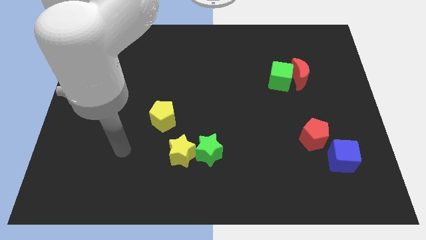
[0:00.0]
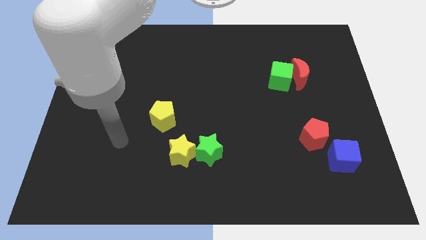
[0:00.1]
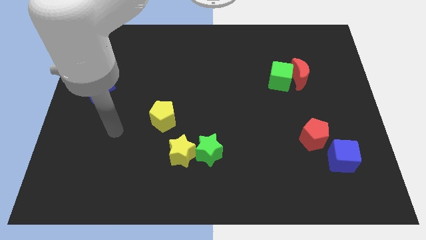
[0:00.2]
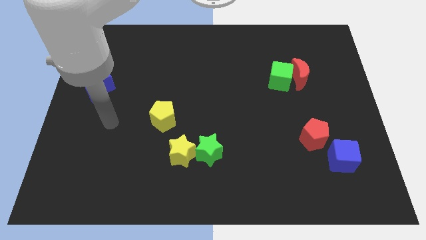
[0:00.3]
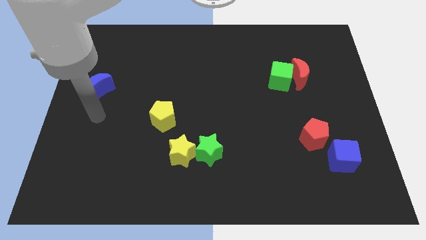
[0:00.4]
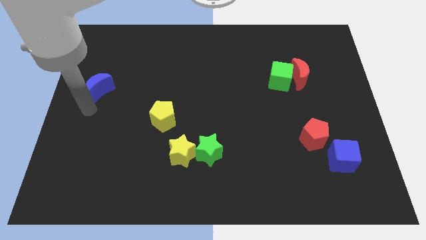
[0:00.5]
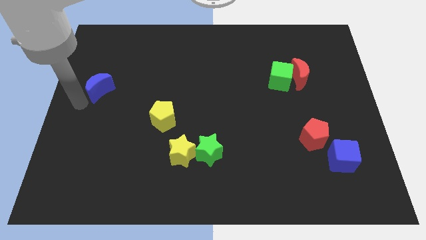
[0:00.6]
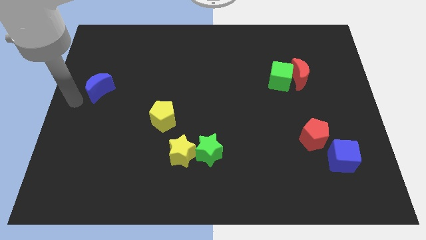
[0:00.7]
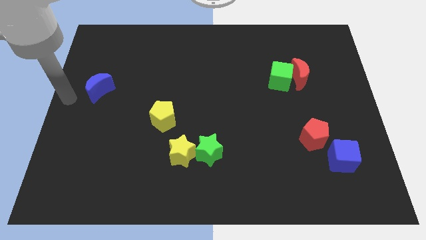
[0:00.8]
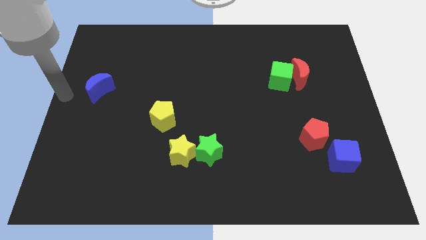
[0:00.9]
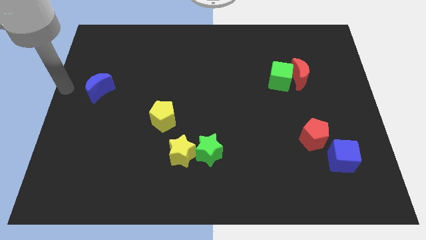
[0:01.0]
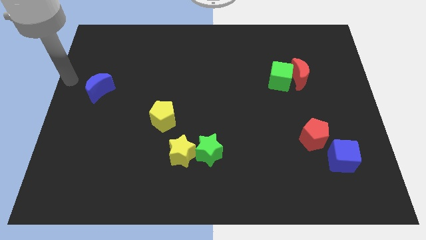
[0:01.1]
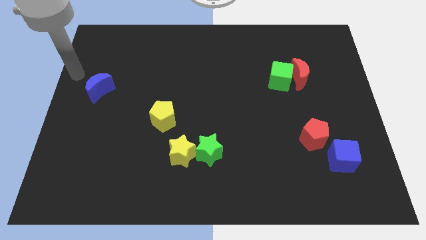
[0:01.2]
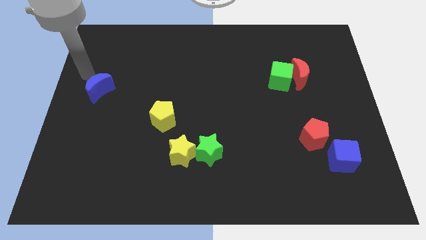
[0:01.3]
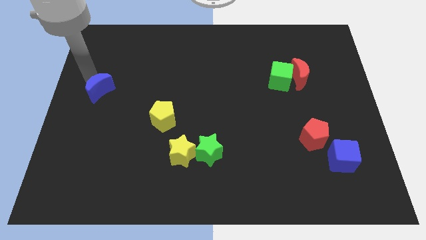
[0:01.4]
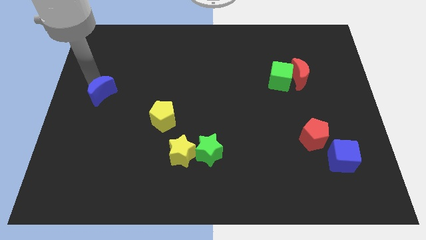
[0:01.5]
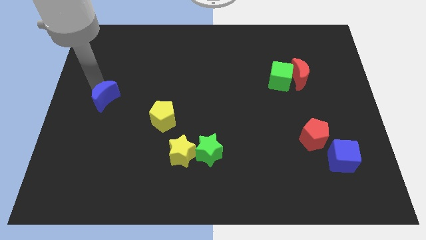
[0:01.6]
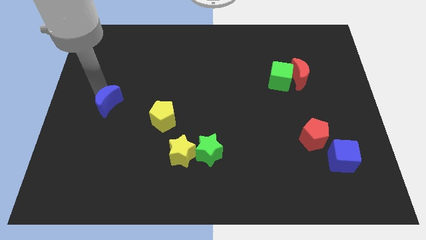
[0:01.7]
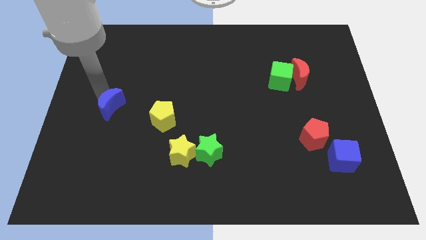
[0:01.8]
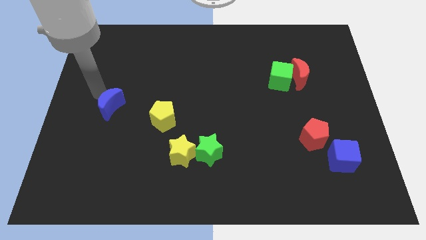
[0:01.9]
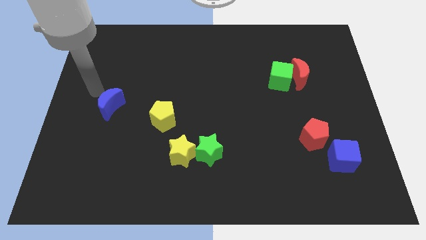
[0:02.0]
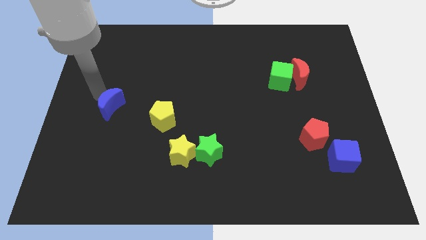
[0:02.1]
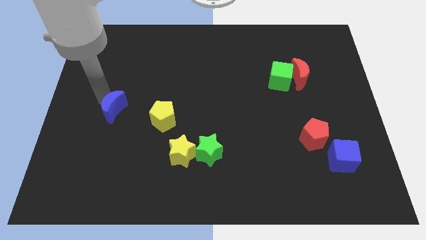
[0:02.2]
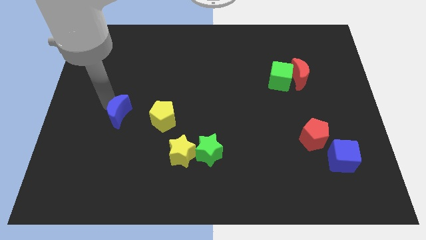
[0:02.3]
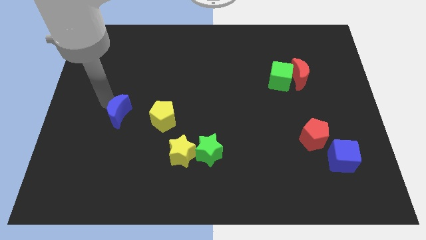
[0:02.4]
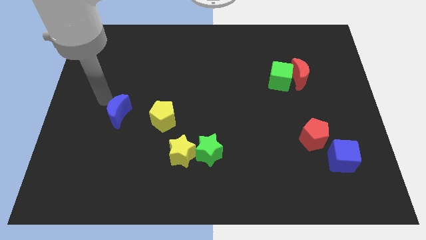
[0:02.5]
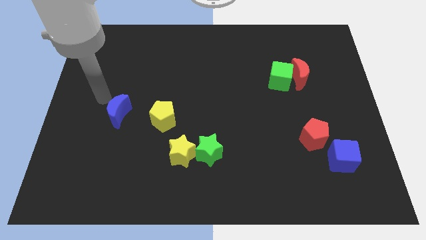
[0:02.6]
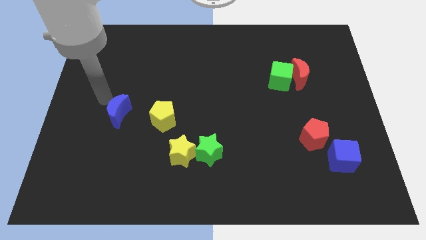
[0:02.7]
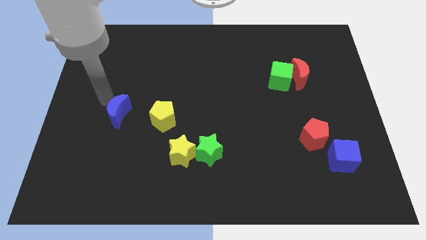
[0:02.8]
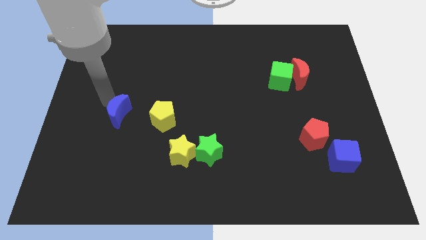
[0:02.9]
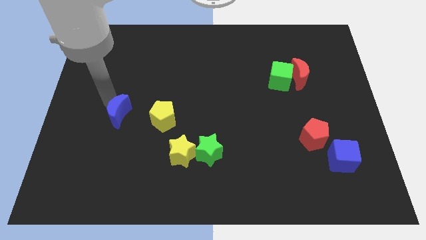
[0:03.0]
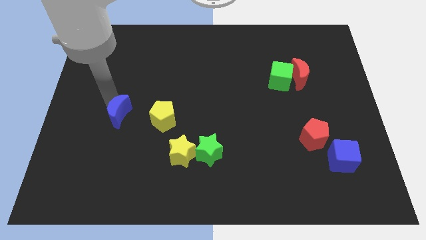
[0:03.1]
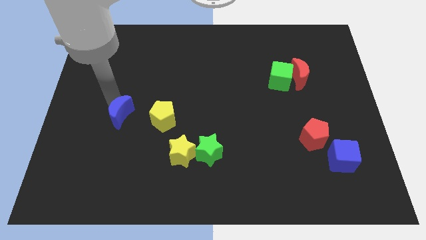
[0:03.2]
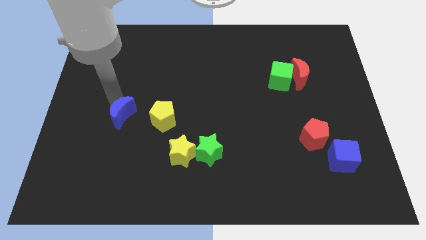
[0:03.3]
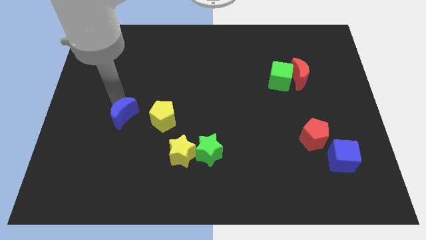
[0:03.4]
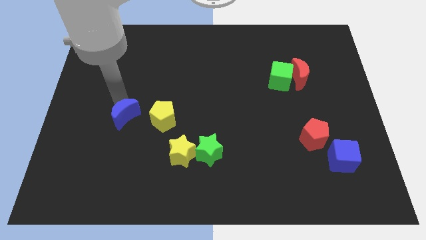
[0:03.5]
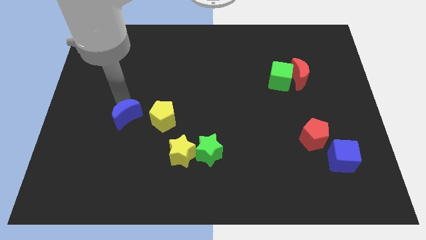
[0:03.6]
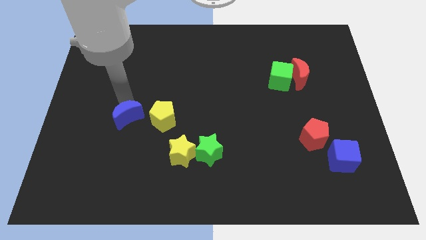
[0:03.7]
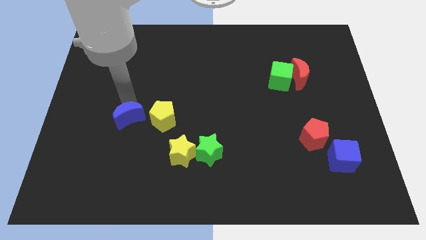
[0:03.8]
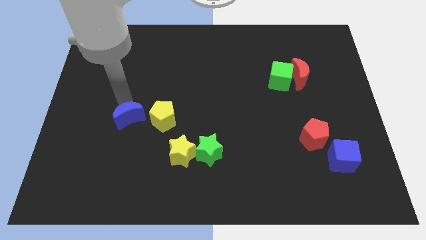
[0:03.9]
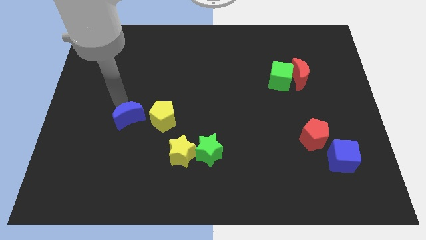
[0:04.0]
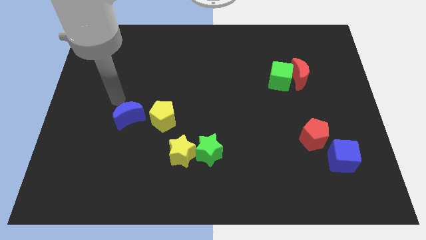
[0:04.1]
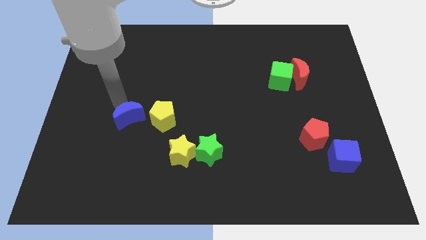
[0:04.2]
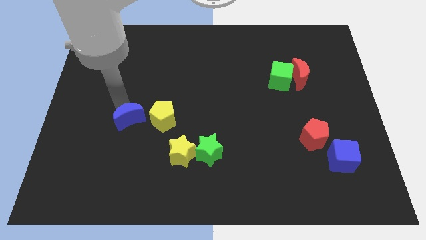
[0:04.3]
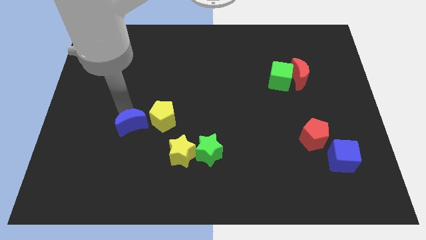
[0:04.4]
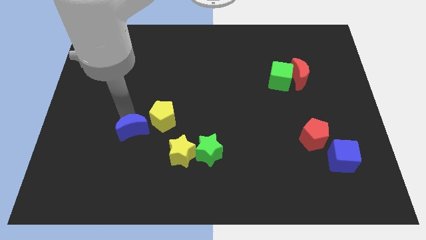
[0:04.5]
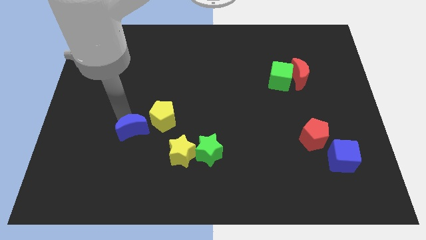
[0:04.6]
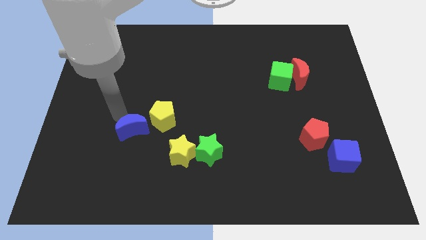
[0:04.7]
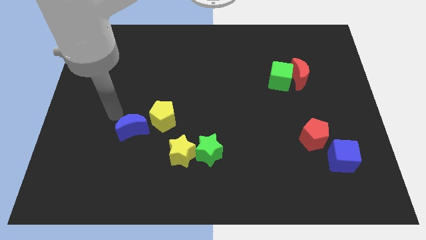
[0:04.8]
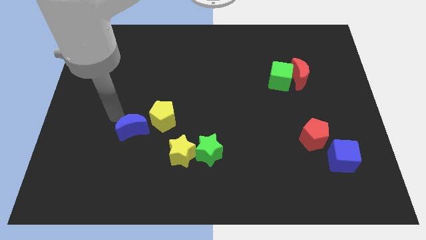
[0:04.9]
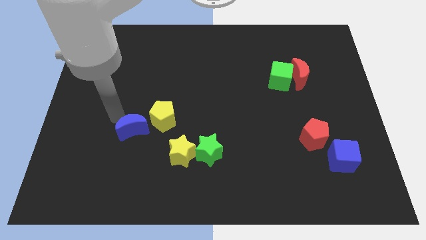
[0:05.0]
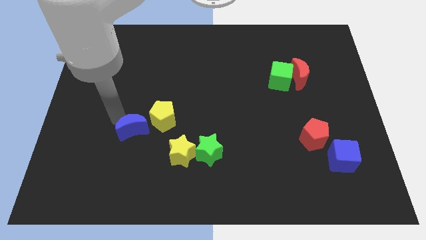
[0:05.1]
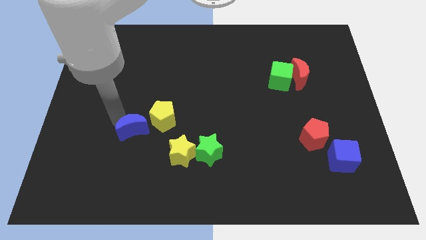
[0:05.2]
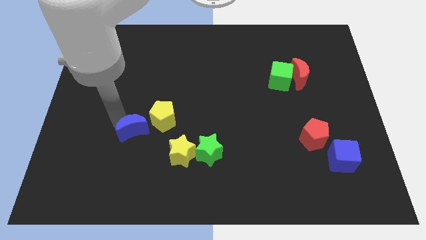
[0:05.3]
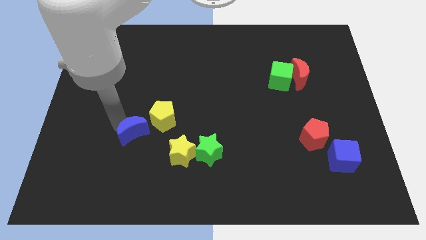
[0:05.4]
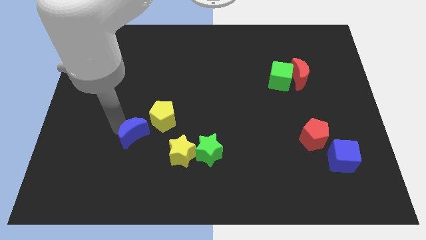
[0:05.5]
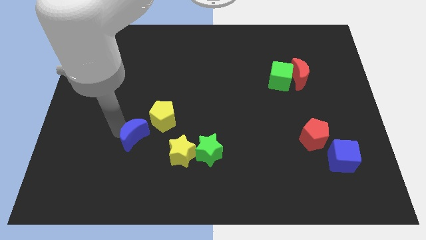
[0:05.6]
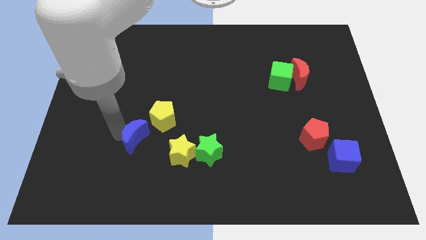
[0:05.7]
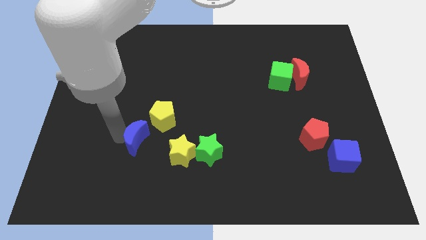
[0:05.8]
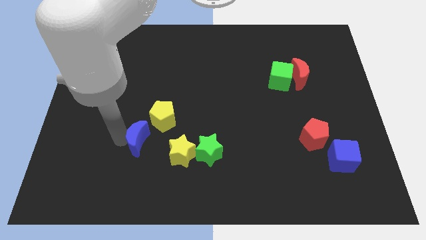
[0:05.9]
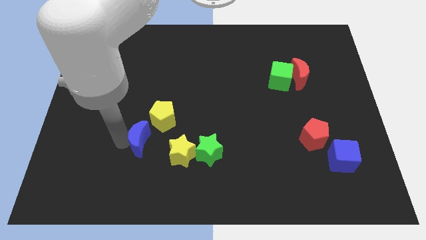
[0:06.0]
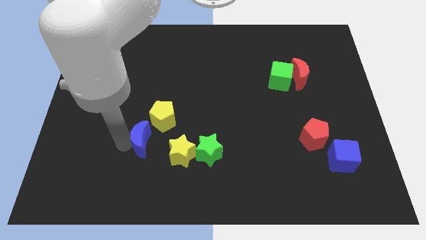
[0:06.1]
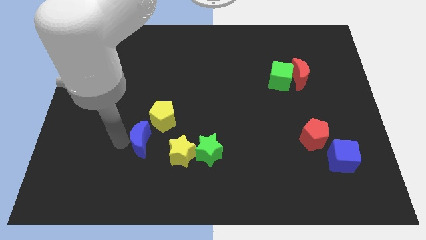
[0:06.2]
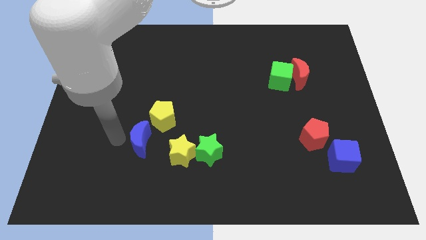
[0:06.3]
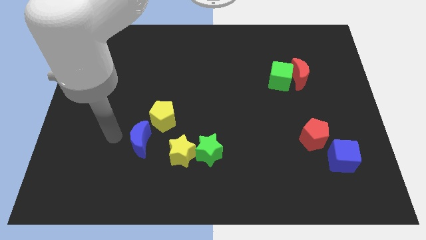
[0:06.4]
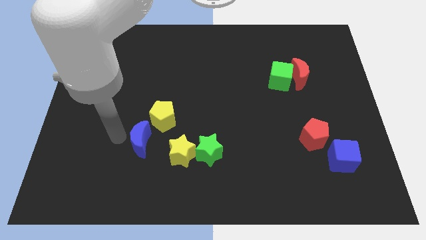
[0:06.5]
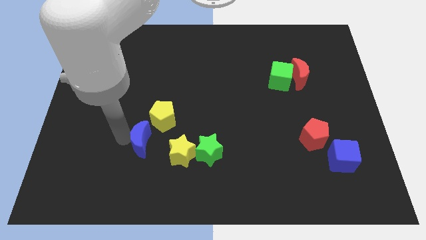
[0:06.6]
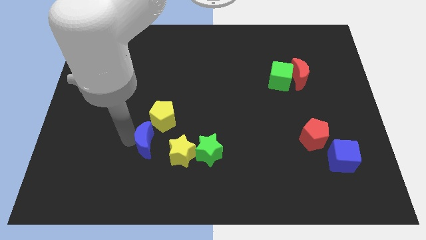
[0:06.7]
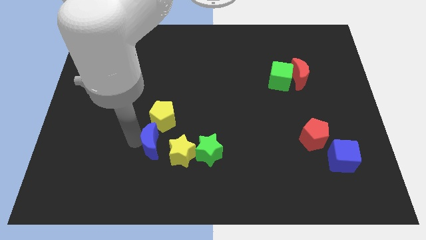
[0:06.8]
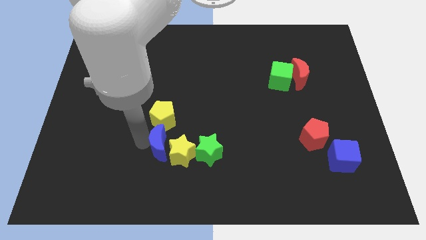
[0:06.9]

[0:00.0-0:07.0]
put the blue moon towards the yellow star

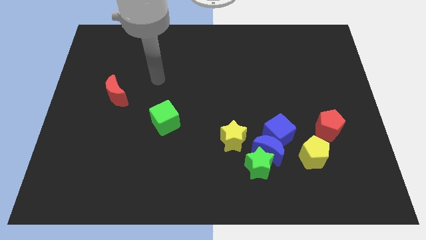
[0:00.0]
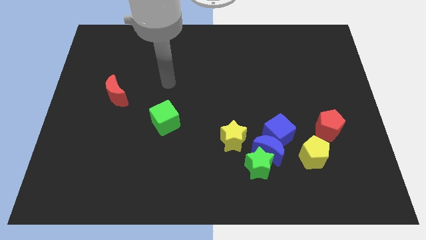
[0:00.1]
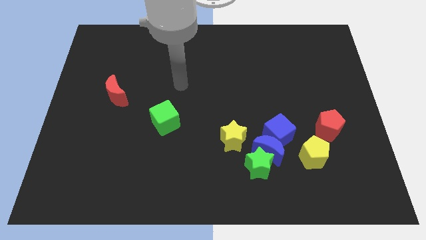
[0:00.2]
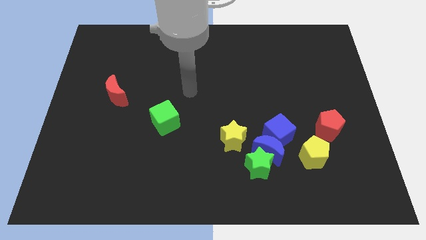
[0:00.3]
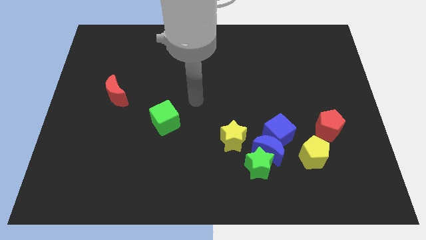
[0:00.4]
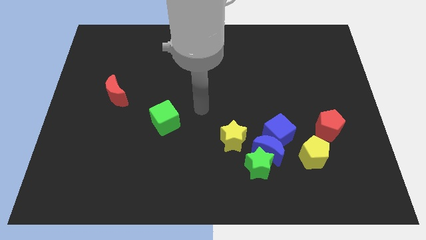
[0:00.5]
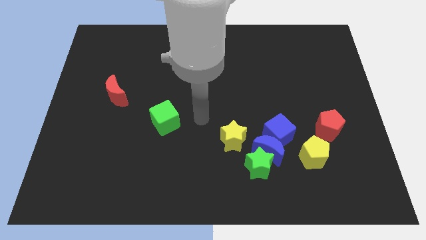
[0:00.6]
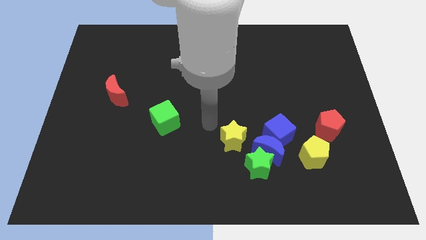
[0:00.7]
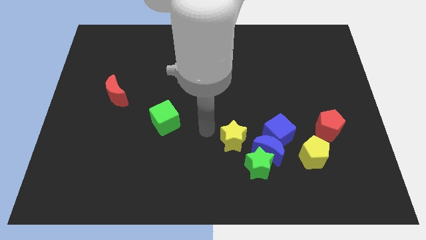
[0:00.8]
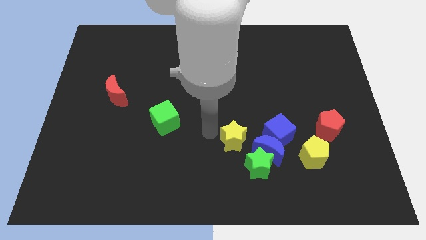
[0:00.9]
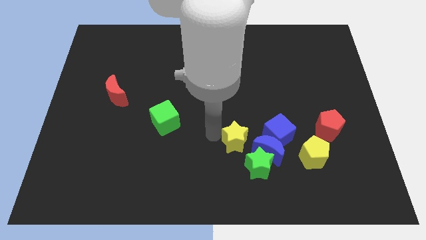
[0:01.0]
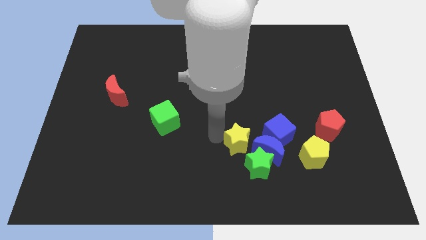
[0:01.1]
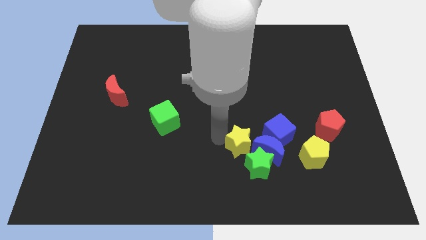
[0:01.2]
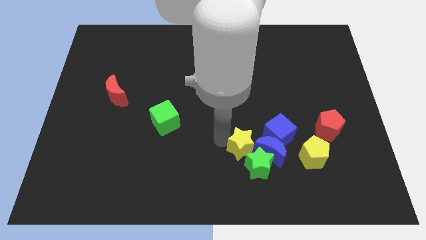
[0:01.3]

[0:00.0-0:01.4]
push the yellow star to the blue moon
